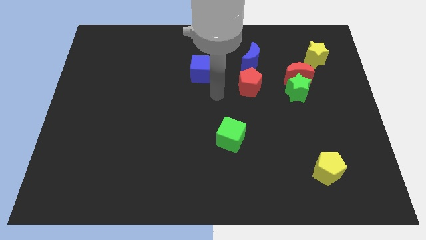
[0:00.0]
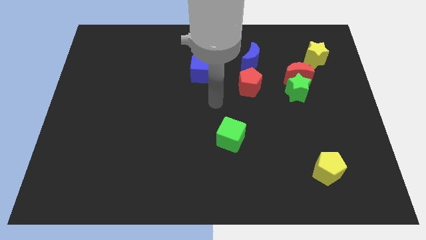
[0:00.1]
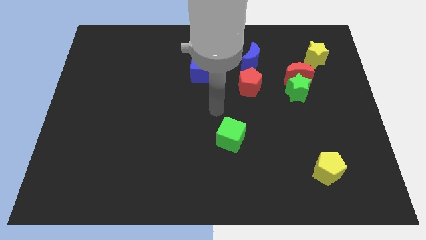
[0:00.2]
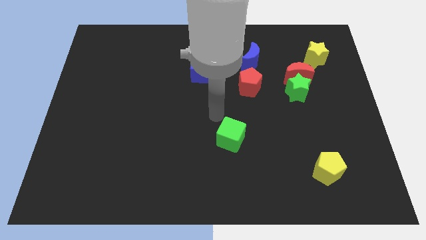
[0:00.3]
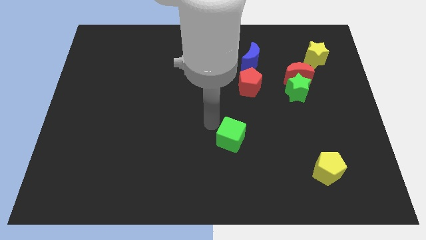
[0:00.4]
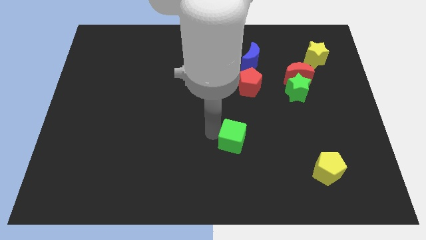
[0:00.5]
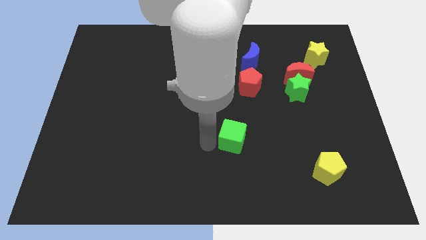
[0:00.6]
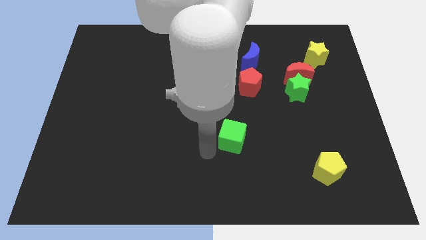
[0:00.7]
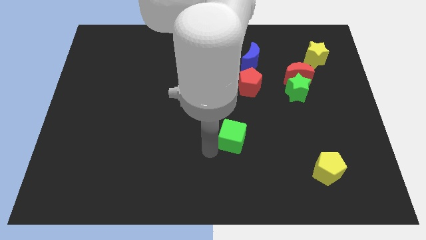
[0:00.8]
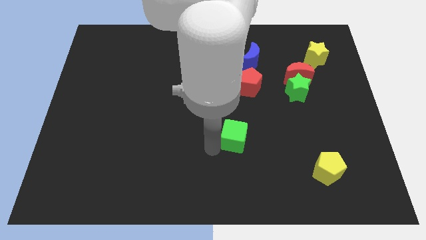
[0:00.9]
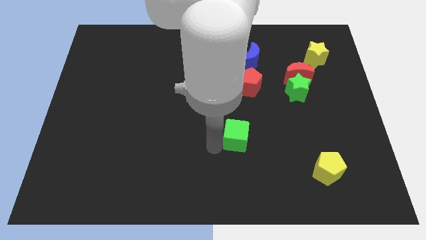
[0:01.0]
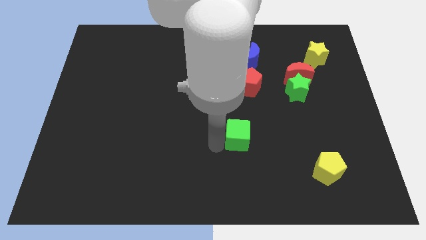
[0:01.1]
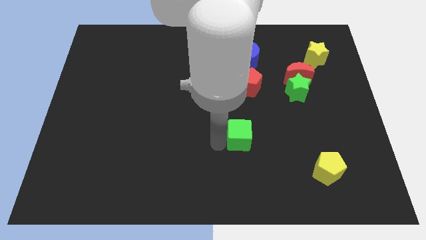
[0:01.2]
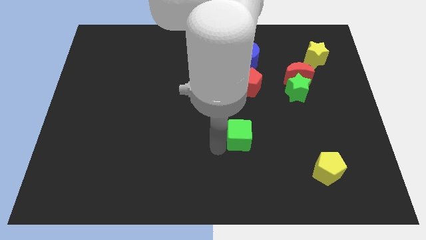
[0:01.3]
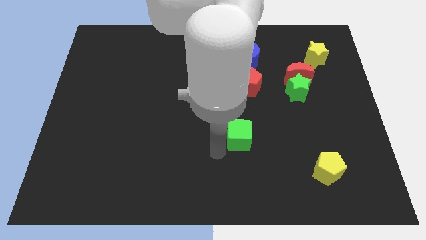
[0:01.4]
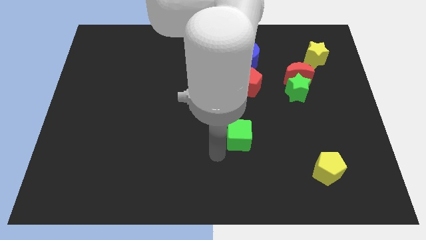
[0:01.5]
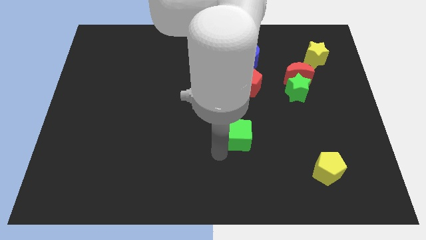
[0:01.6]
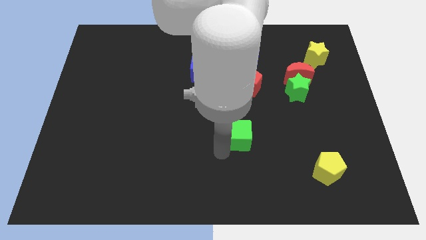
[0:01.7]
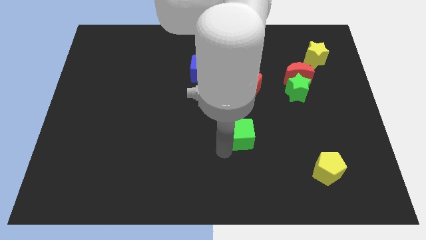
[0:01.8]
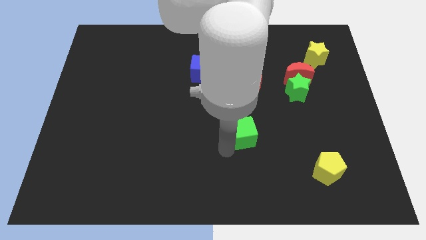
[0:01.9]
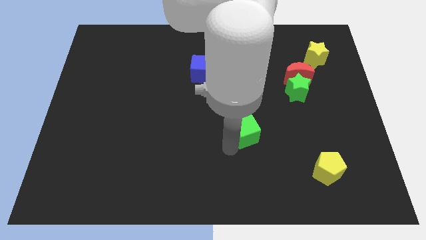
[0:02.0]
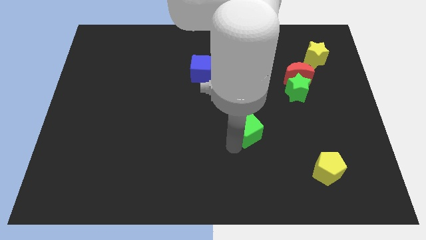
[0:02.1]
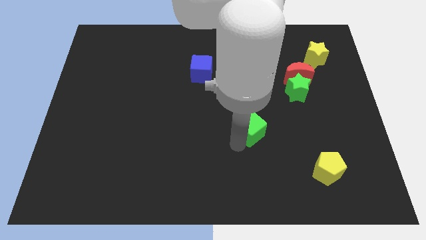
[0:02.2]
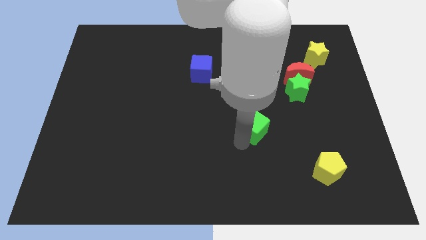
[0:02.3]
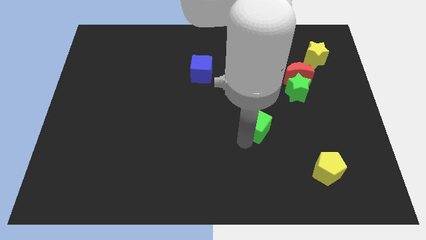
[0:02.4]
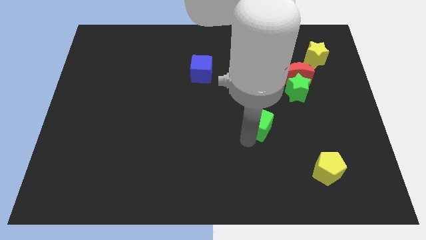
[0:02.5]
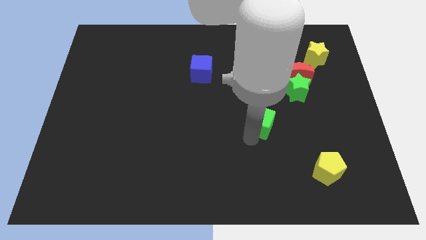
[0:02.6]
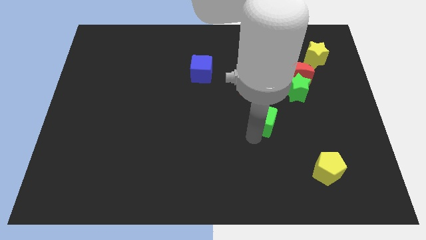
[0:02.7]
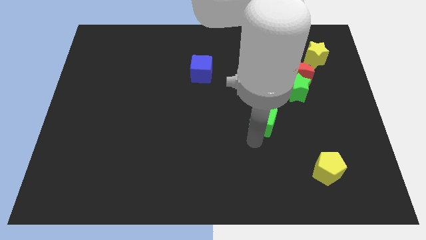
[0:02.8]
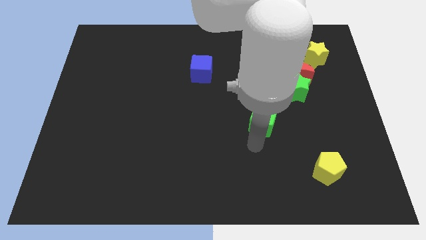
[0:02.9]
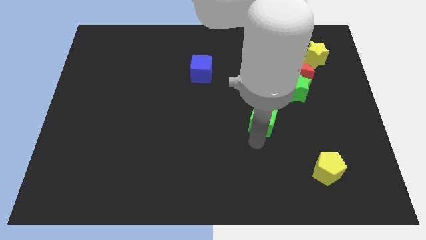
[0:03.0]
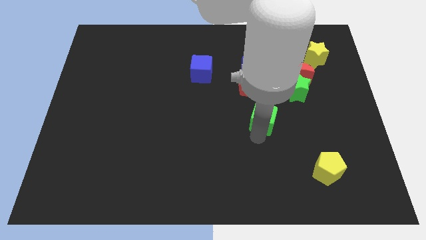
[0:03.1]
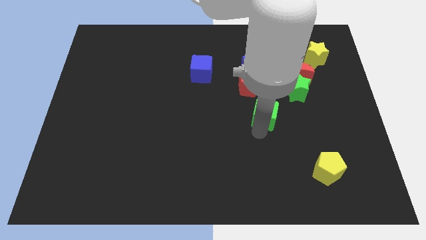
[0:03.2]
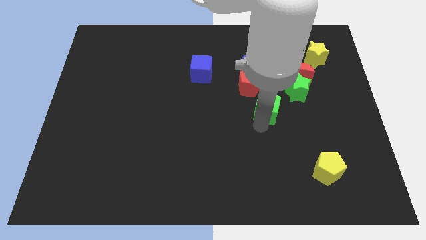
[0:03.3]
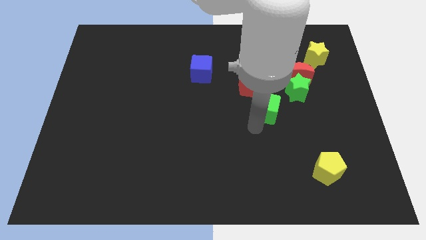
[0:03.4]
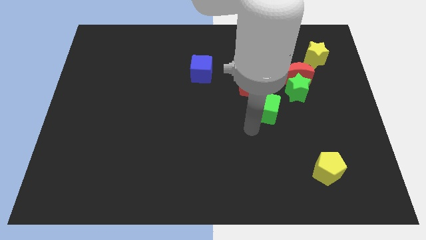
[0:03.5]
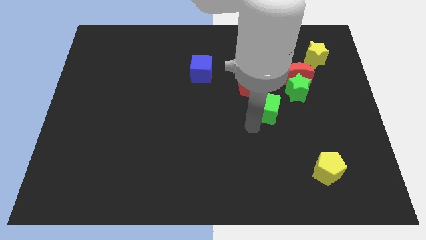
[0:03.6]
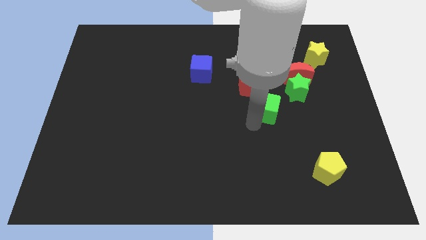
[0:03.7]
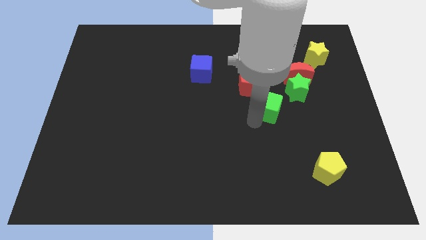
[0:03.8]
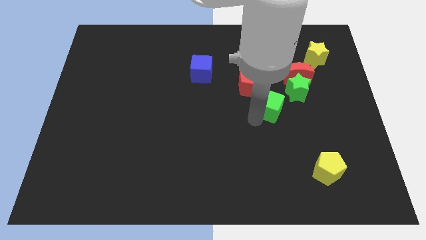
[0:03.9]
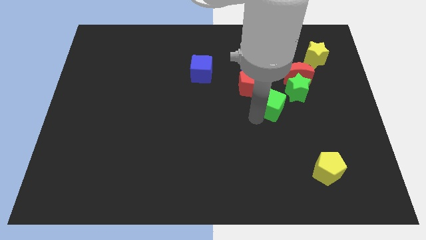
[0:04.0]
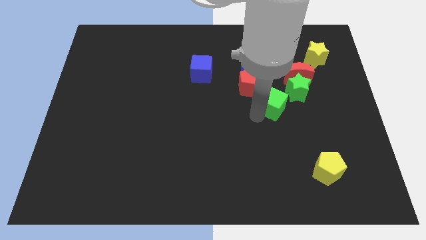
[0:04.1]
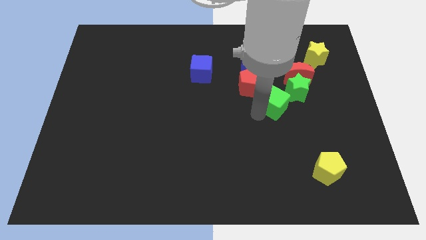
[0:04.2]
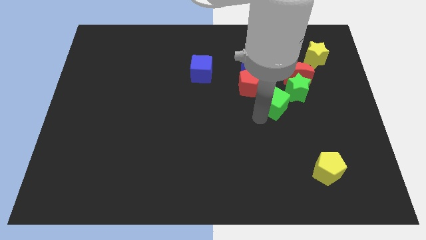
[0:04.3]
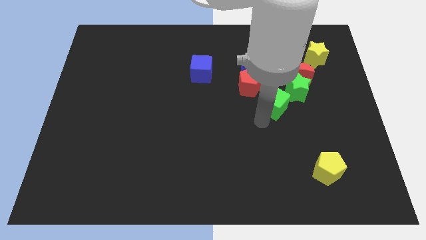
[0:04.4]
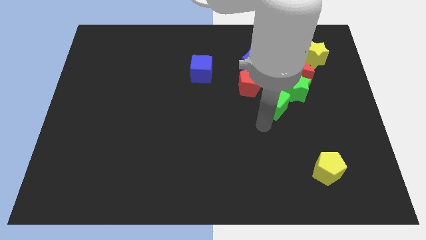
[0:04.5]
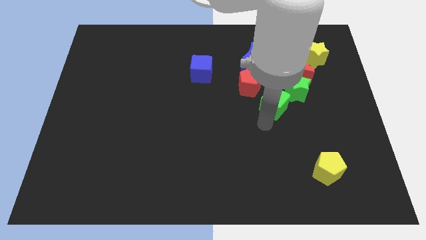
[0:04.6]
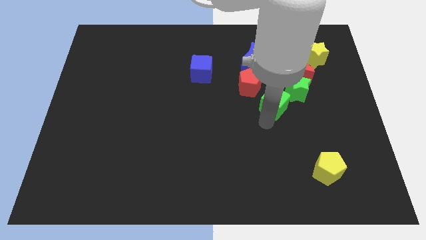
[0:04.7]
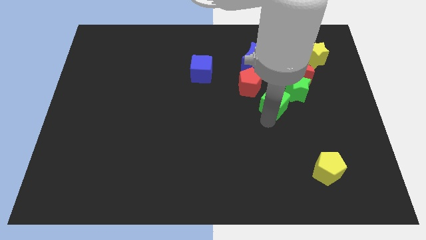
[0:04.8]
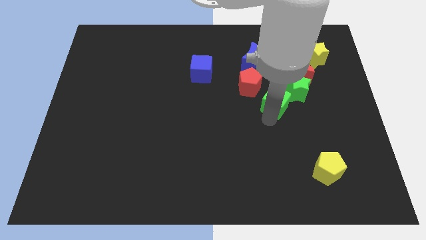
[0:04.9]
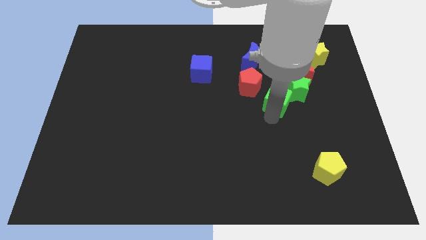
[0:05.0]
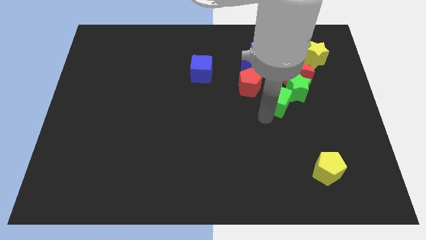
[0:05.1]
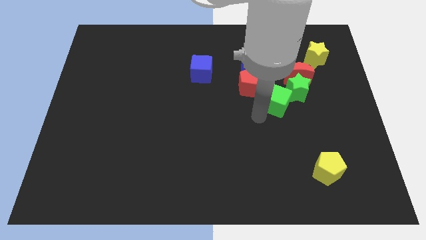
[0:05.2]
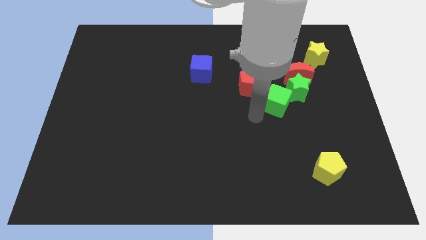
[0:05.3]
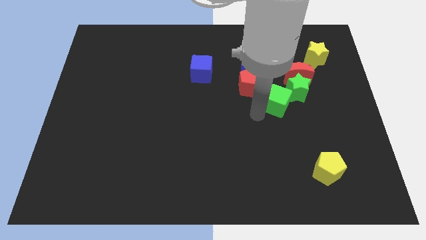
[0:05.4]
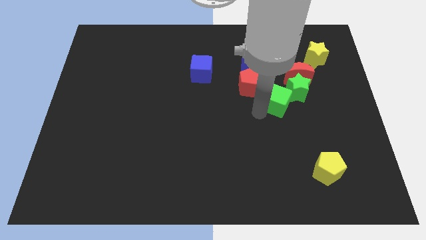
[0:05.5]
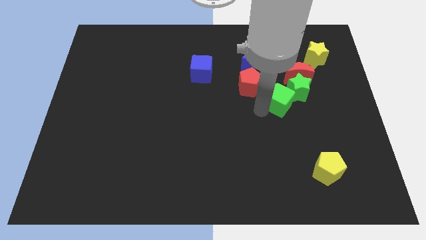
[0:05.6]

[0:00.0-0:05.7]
move the green cube to the green star

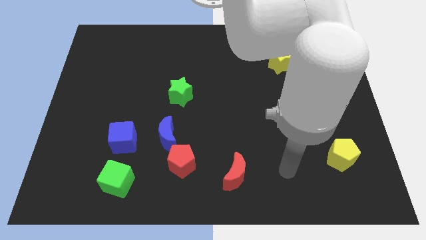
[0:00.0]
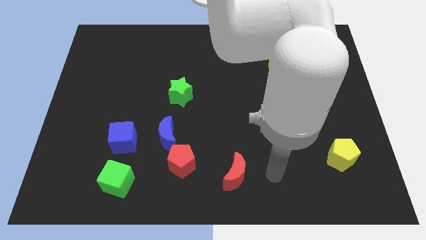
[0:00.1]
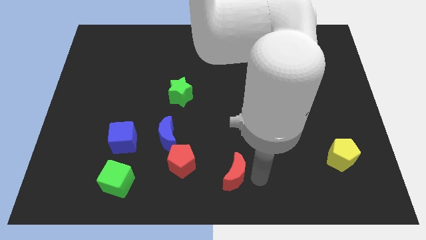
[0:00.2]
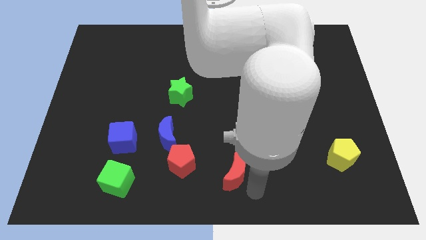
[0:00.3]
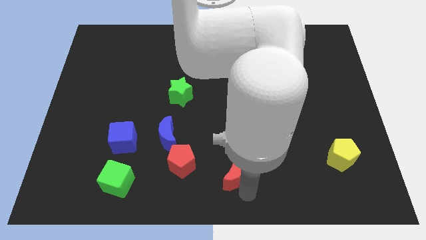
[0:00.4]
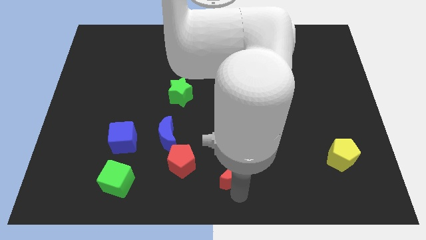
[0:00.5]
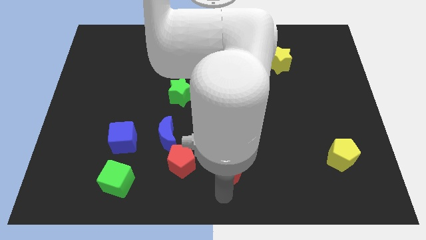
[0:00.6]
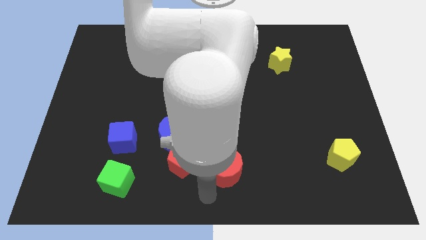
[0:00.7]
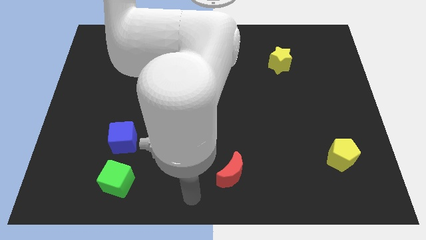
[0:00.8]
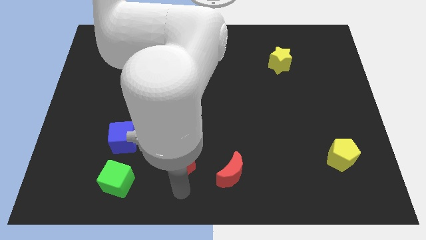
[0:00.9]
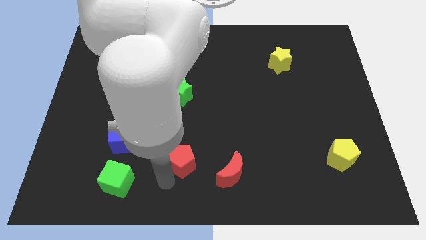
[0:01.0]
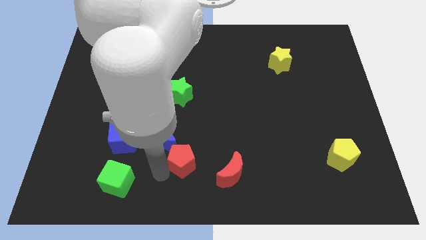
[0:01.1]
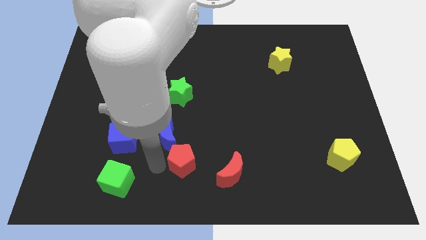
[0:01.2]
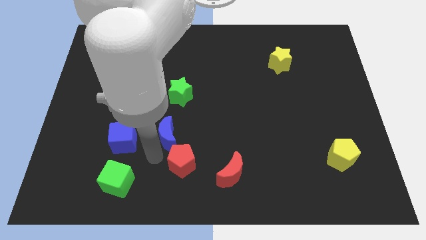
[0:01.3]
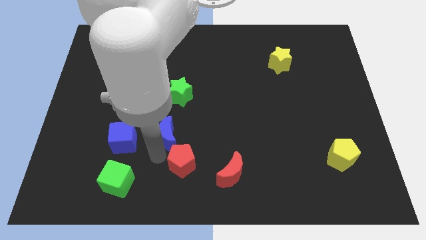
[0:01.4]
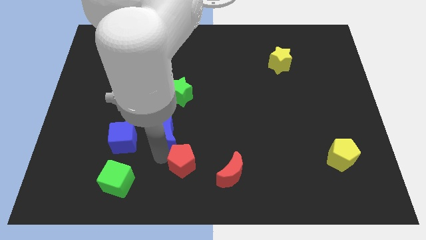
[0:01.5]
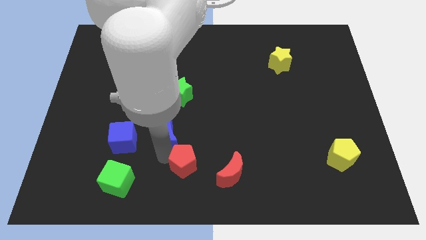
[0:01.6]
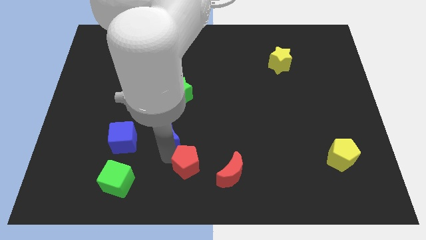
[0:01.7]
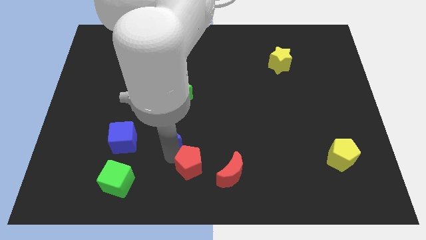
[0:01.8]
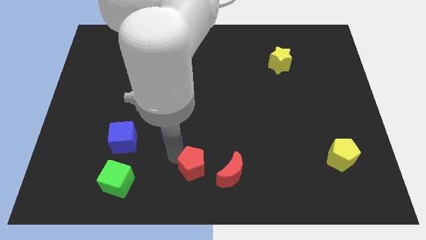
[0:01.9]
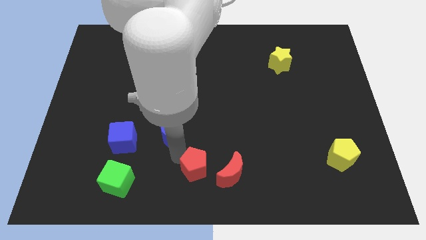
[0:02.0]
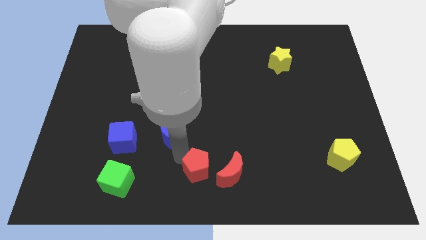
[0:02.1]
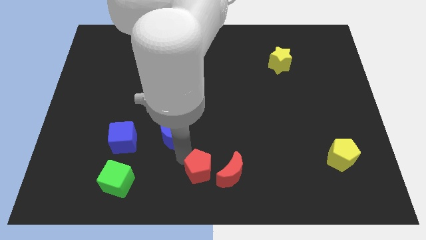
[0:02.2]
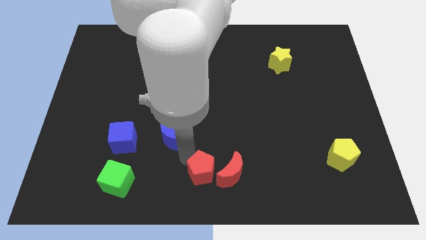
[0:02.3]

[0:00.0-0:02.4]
move the red pentagon close to the red moon
